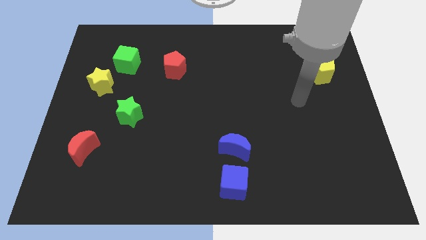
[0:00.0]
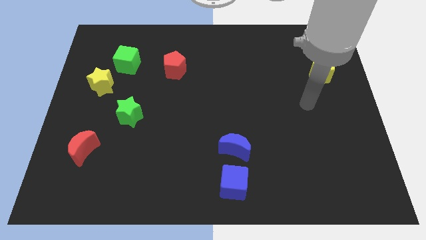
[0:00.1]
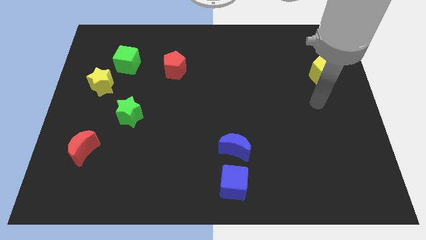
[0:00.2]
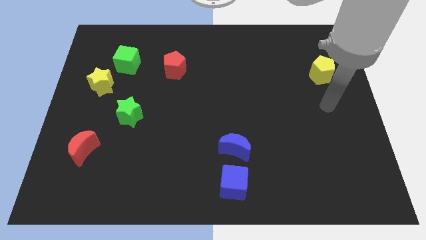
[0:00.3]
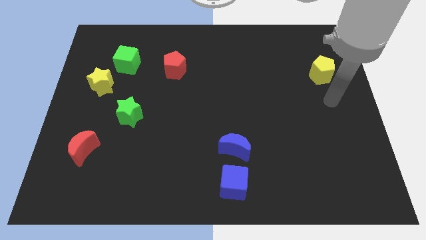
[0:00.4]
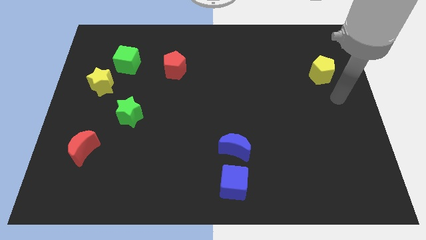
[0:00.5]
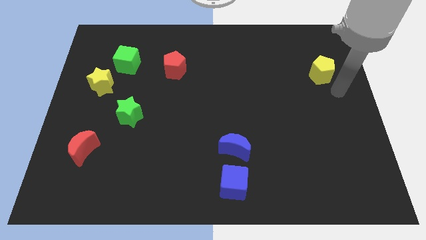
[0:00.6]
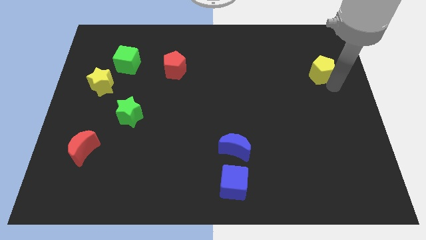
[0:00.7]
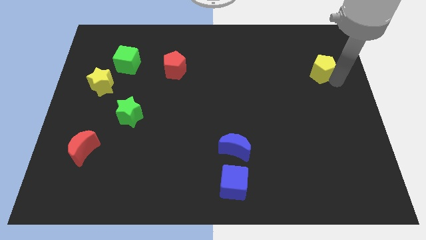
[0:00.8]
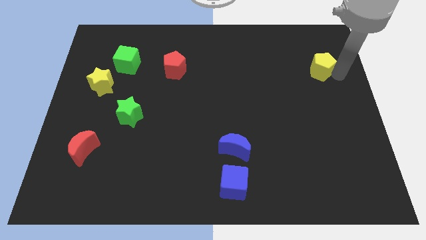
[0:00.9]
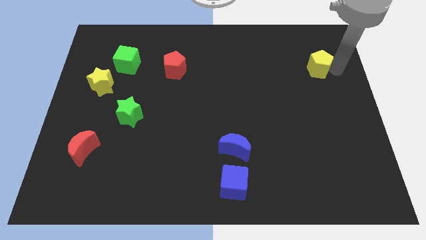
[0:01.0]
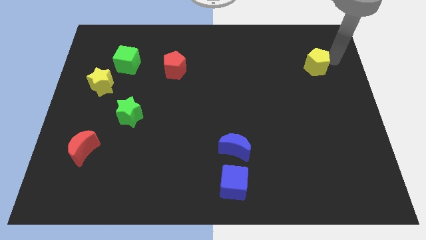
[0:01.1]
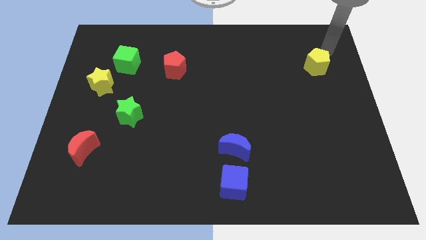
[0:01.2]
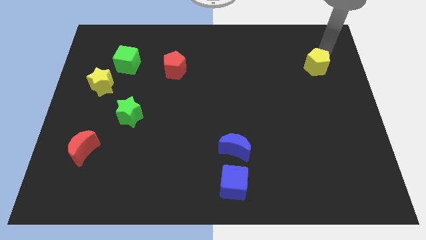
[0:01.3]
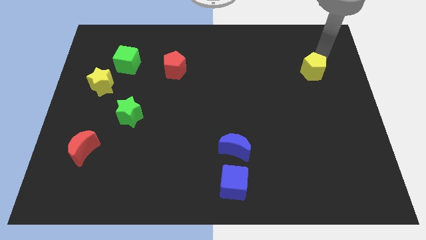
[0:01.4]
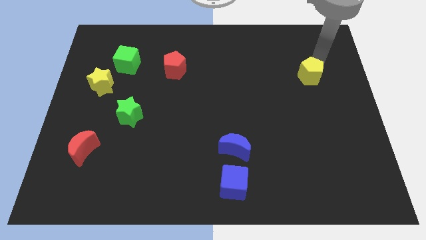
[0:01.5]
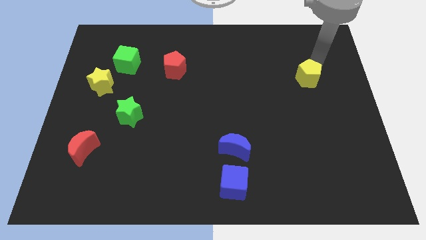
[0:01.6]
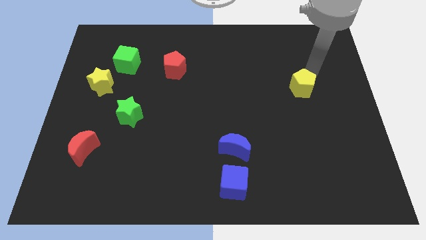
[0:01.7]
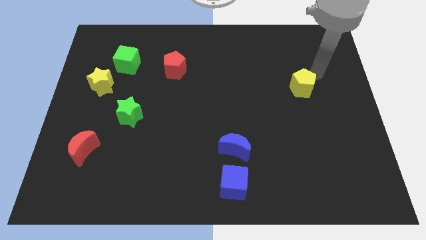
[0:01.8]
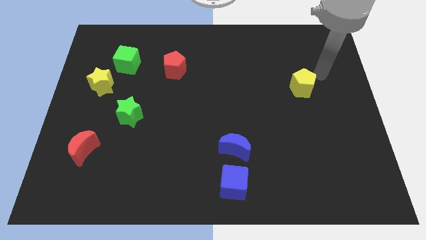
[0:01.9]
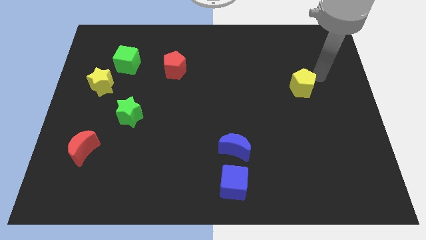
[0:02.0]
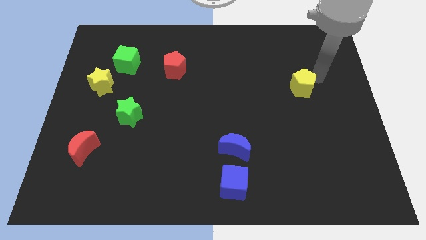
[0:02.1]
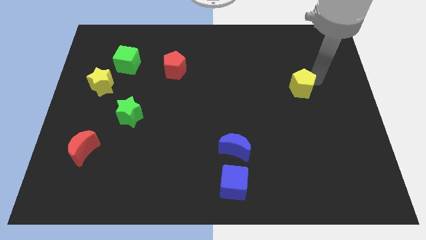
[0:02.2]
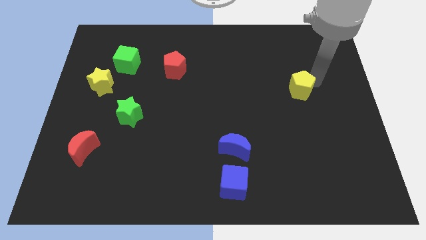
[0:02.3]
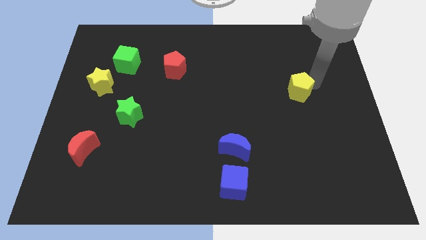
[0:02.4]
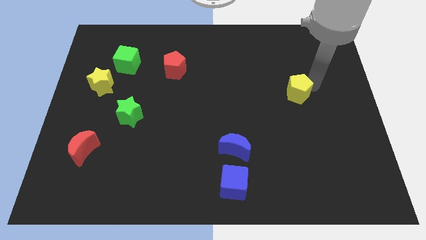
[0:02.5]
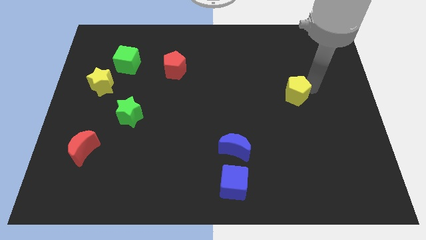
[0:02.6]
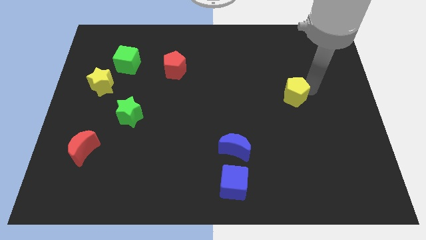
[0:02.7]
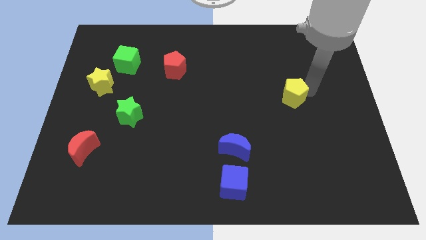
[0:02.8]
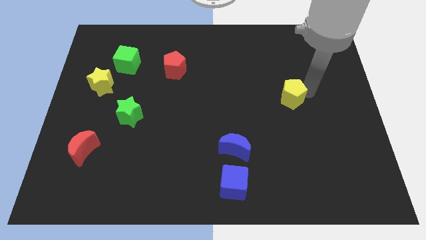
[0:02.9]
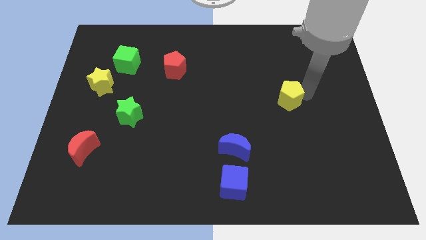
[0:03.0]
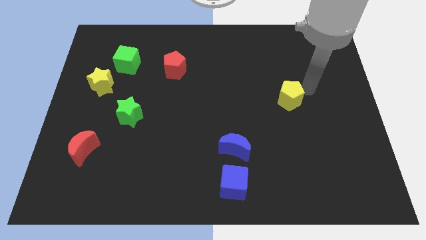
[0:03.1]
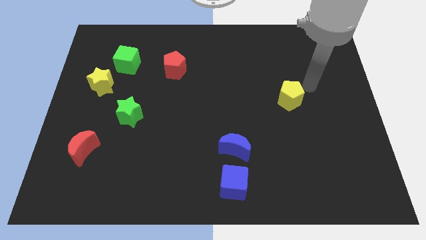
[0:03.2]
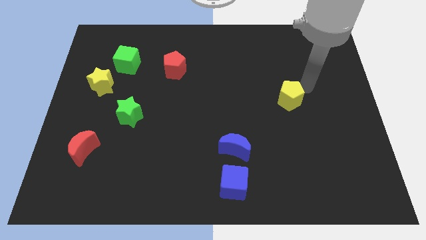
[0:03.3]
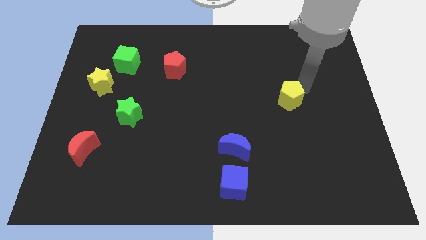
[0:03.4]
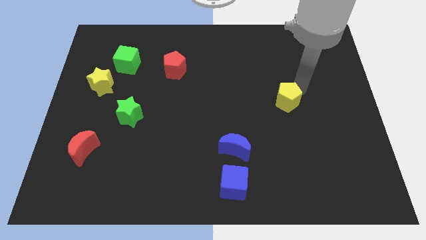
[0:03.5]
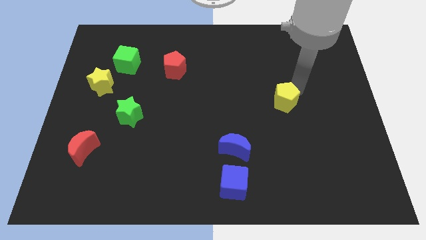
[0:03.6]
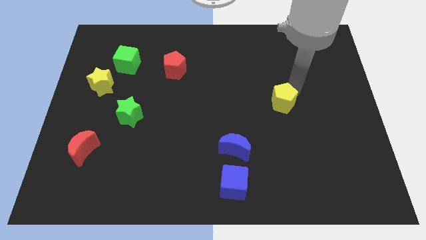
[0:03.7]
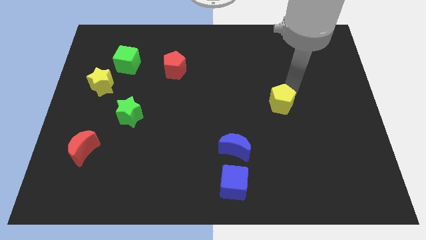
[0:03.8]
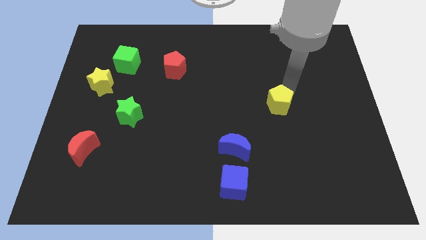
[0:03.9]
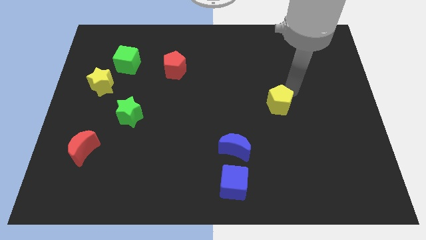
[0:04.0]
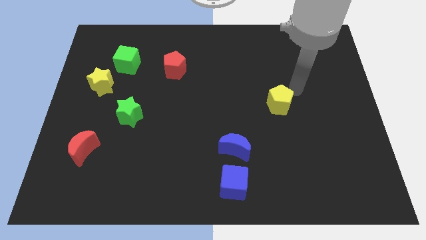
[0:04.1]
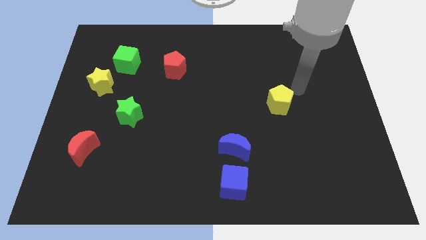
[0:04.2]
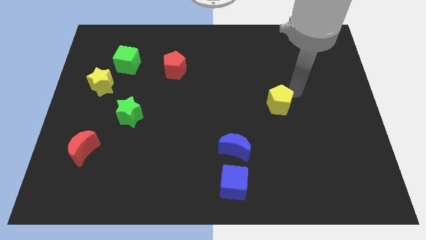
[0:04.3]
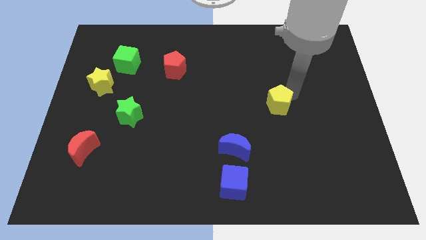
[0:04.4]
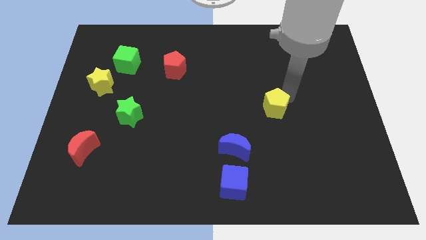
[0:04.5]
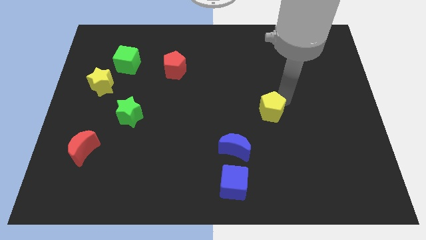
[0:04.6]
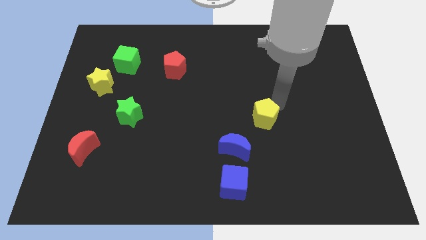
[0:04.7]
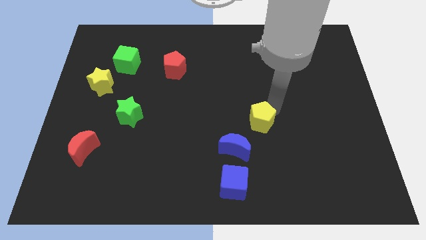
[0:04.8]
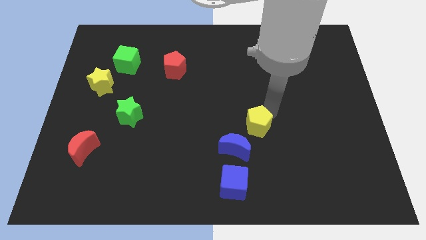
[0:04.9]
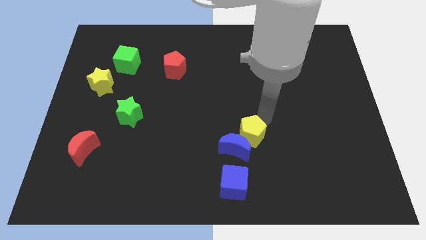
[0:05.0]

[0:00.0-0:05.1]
push the yellow pentagon to the top side of the blue cube
